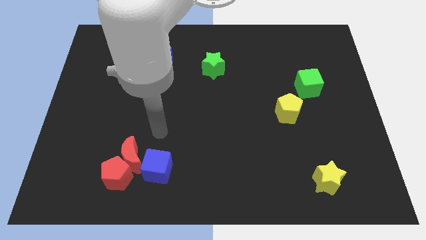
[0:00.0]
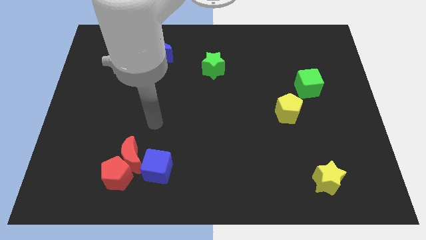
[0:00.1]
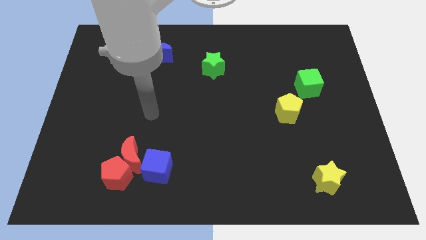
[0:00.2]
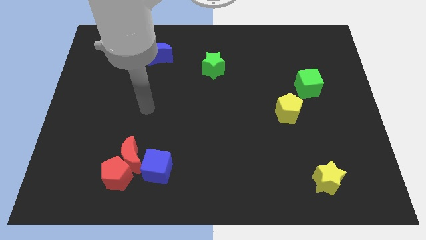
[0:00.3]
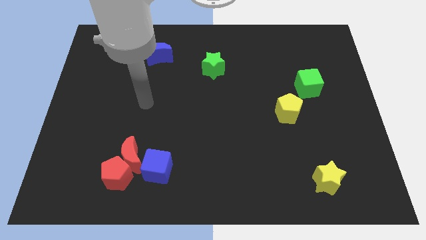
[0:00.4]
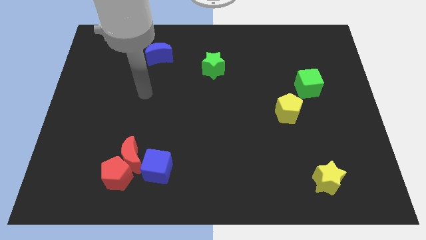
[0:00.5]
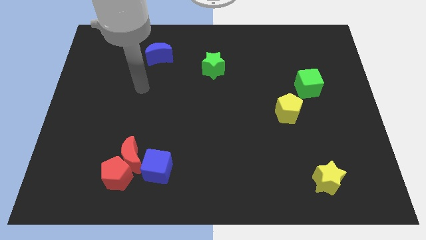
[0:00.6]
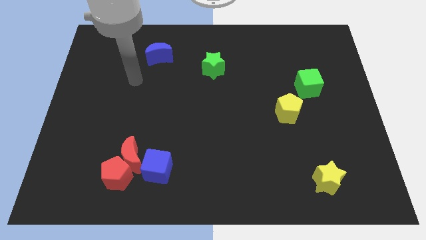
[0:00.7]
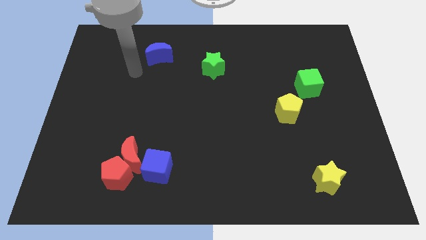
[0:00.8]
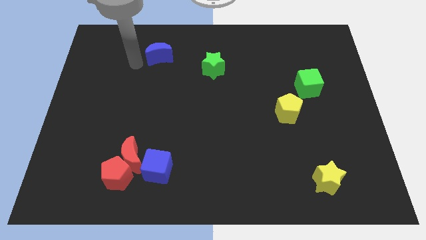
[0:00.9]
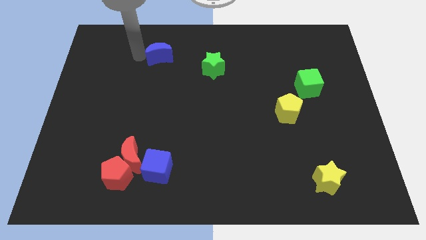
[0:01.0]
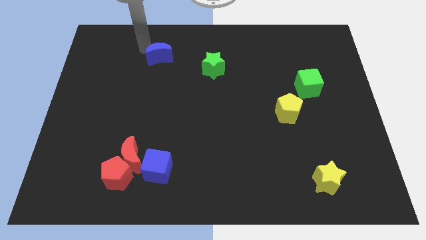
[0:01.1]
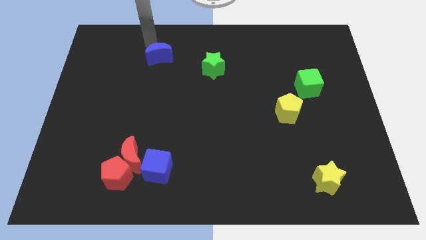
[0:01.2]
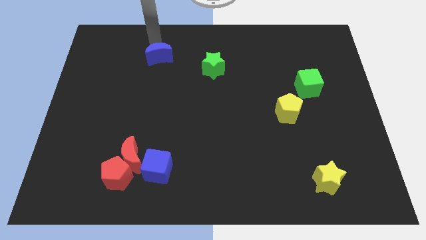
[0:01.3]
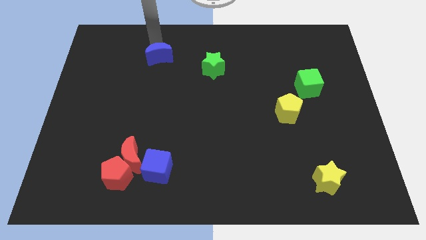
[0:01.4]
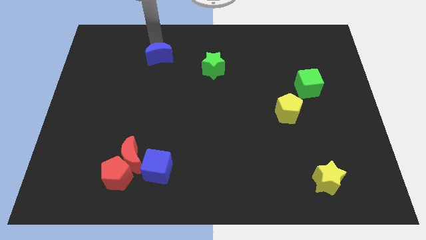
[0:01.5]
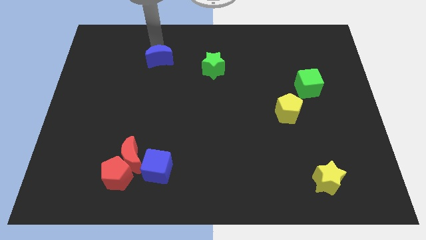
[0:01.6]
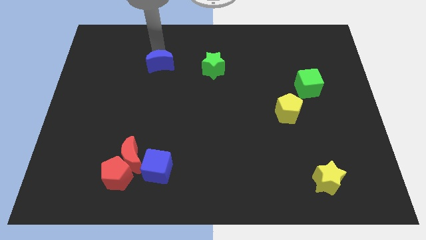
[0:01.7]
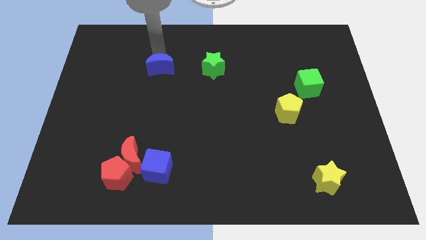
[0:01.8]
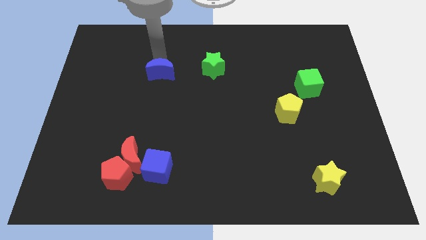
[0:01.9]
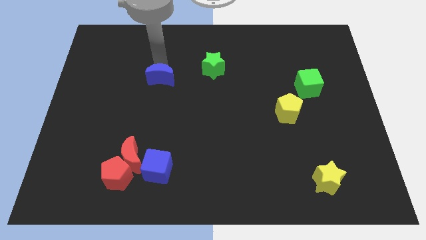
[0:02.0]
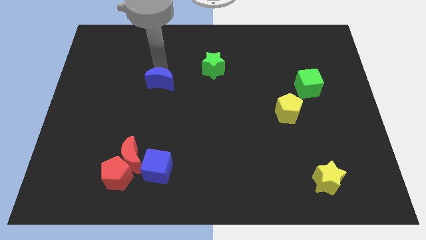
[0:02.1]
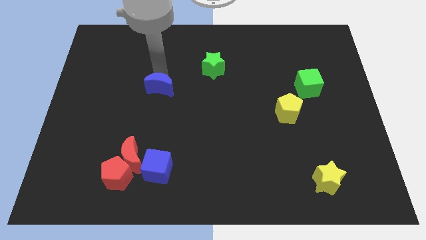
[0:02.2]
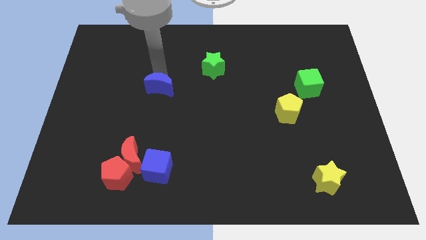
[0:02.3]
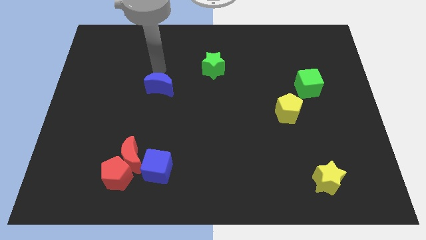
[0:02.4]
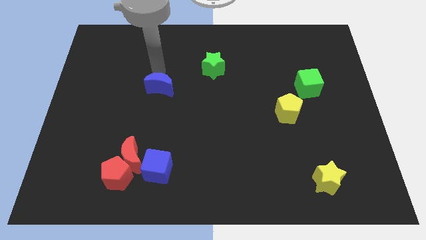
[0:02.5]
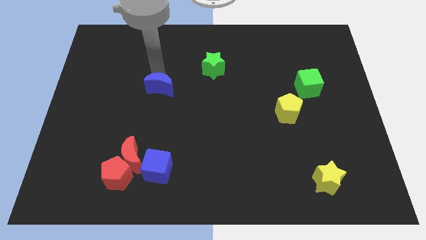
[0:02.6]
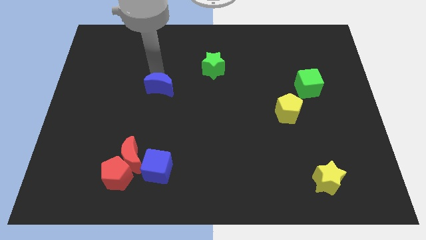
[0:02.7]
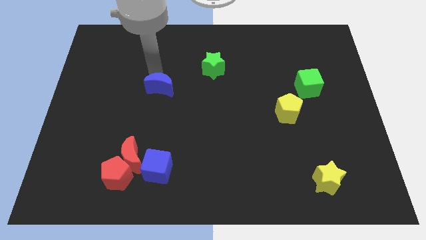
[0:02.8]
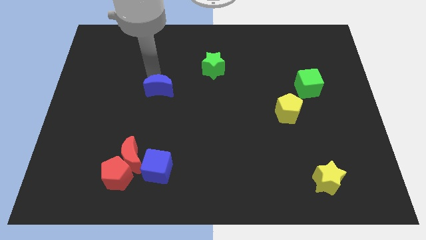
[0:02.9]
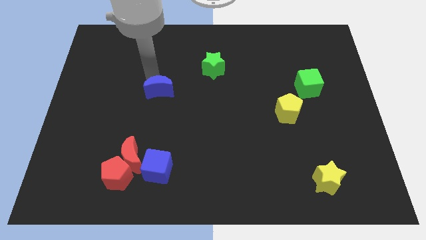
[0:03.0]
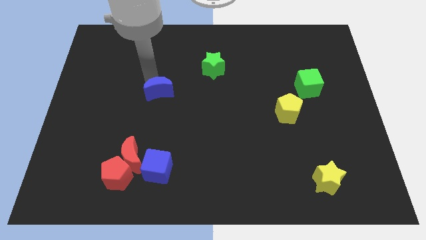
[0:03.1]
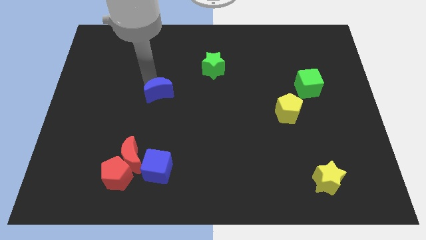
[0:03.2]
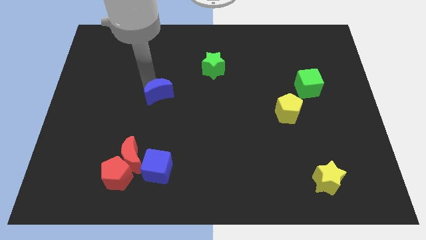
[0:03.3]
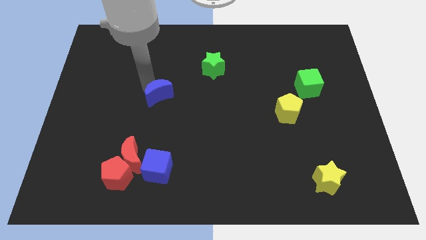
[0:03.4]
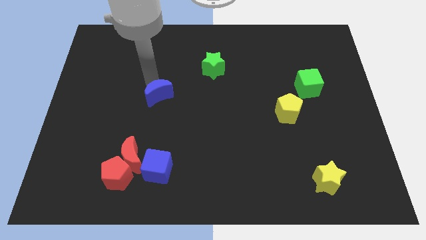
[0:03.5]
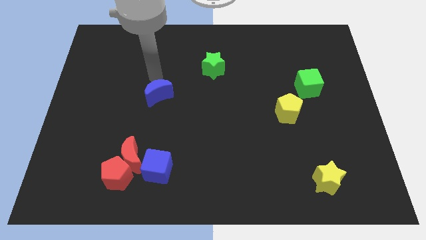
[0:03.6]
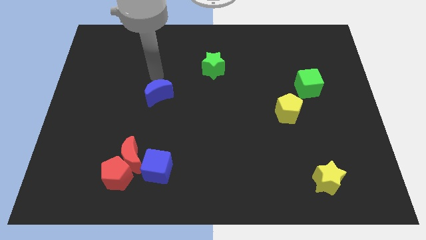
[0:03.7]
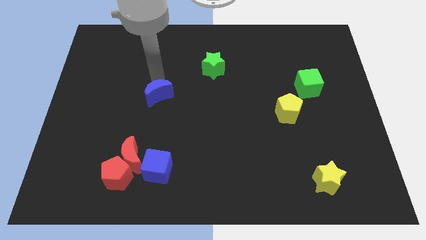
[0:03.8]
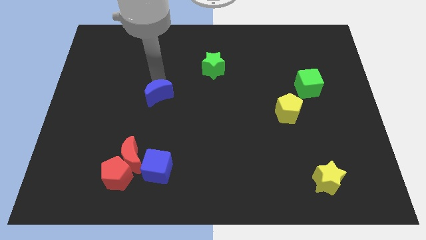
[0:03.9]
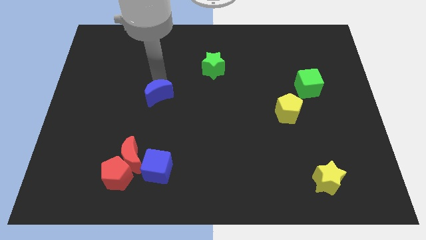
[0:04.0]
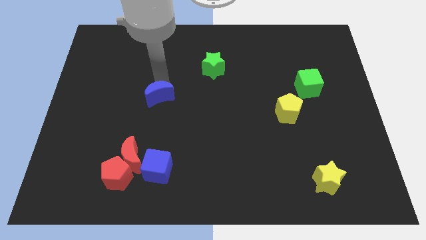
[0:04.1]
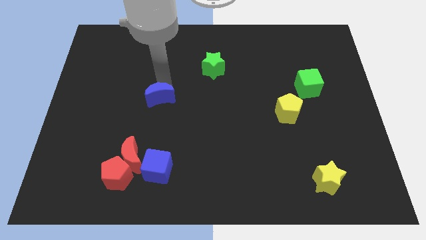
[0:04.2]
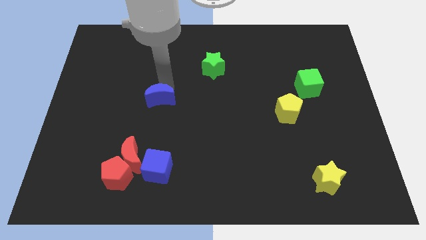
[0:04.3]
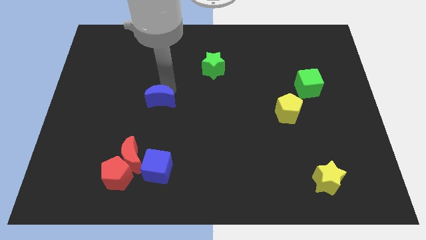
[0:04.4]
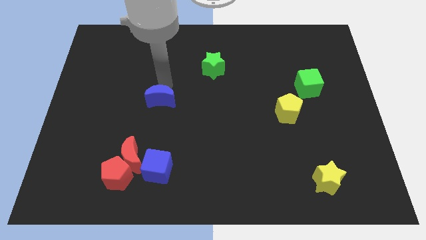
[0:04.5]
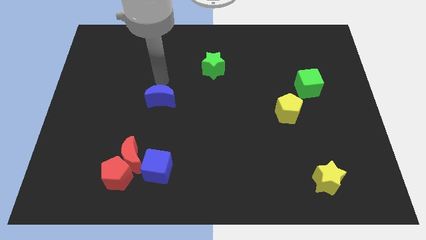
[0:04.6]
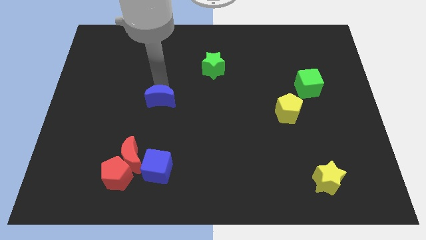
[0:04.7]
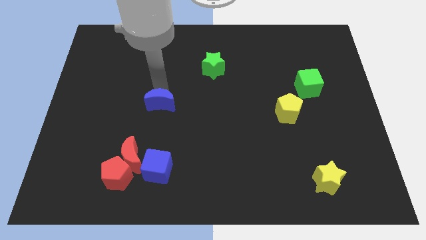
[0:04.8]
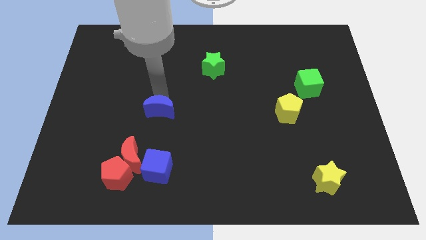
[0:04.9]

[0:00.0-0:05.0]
push the blue moon to the top side of the blue cube

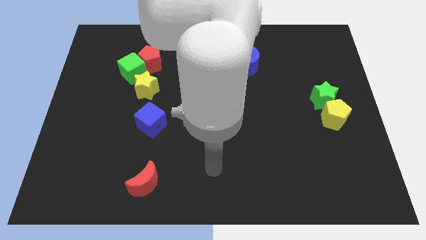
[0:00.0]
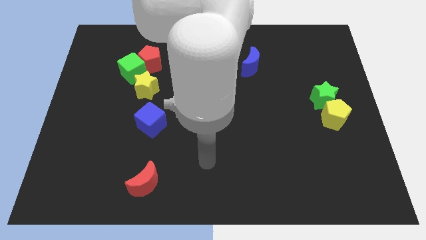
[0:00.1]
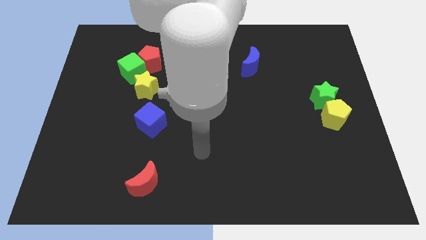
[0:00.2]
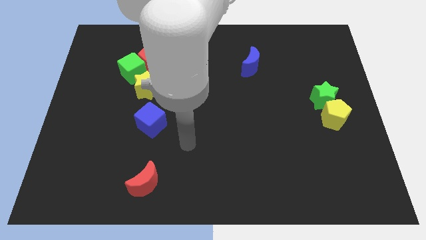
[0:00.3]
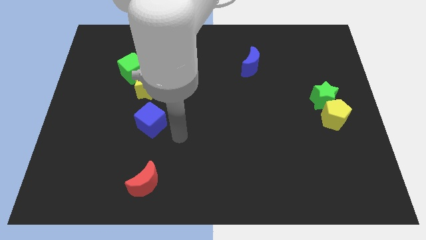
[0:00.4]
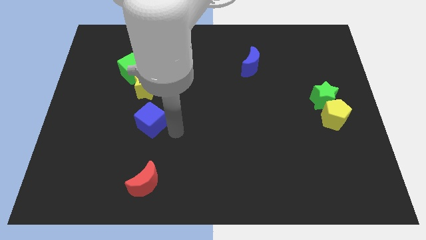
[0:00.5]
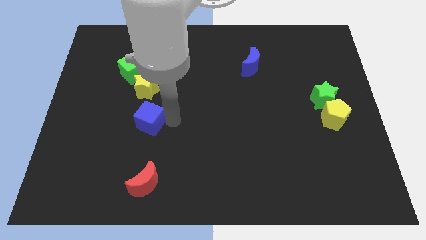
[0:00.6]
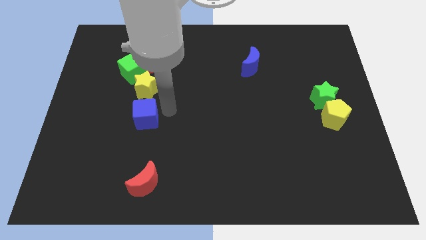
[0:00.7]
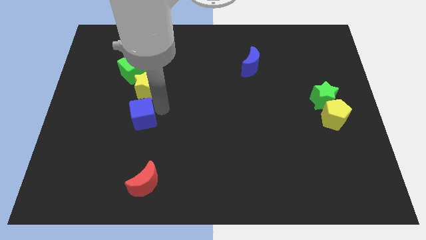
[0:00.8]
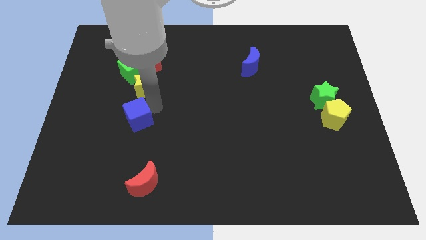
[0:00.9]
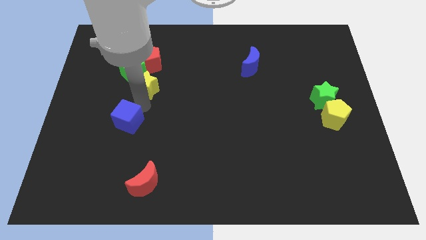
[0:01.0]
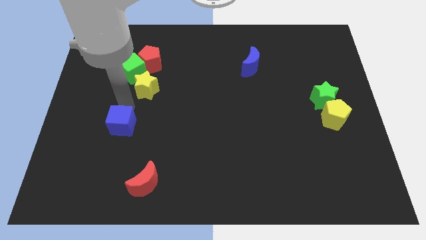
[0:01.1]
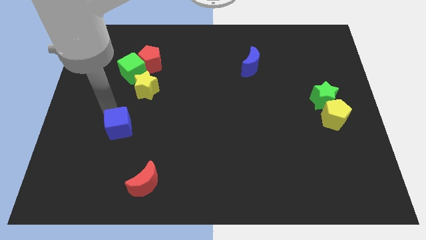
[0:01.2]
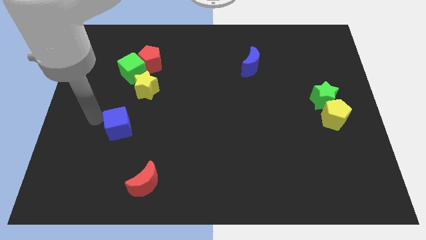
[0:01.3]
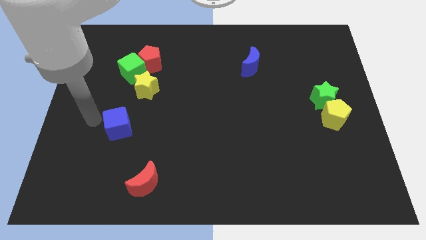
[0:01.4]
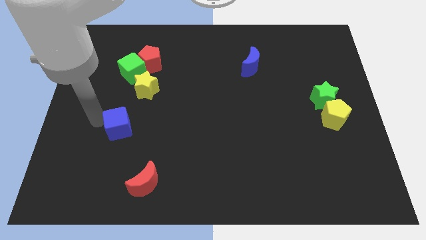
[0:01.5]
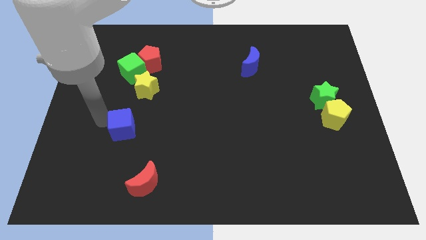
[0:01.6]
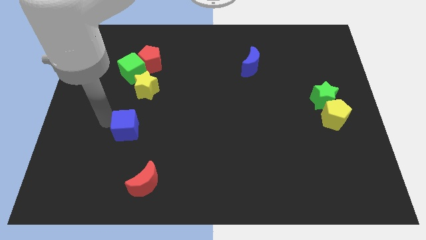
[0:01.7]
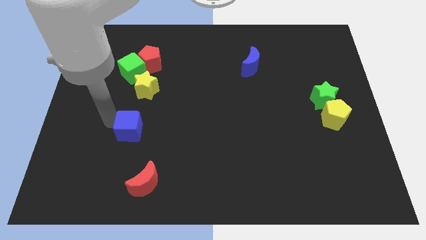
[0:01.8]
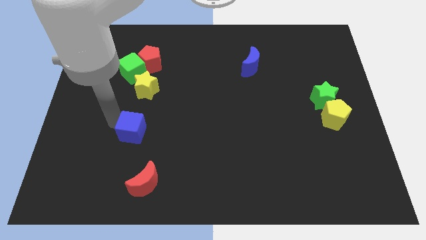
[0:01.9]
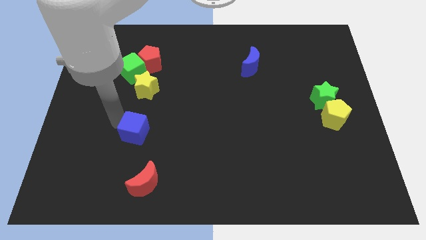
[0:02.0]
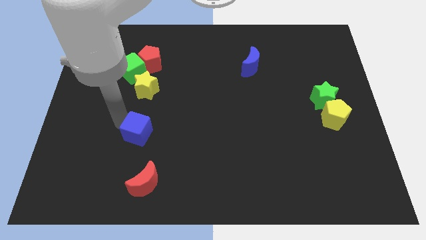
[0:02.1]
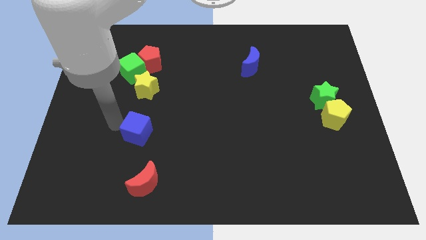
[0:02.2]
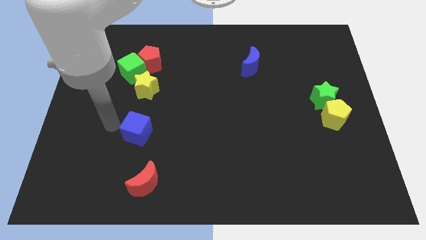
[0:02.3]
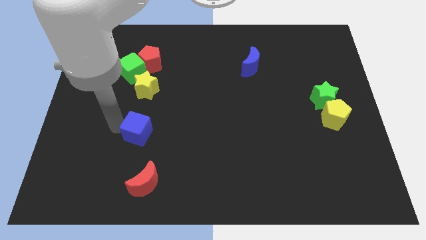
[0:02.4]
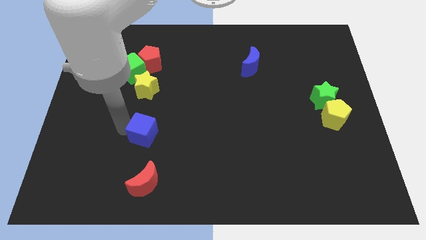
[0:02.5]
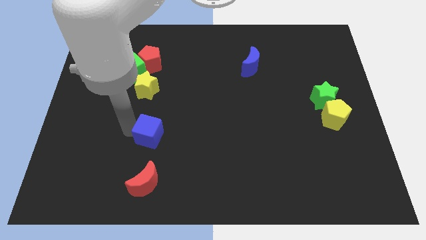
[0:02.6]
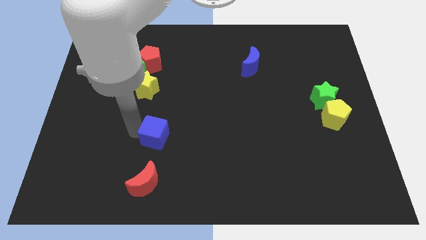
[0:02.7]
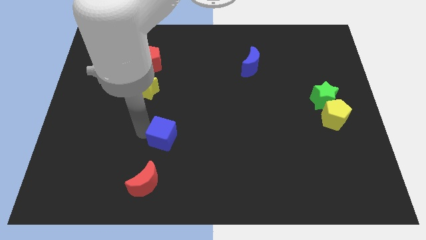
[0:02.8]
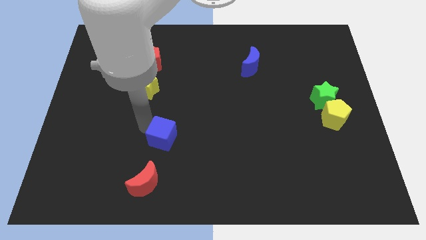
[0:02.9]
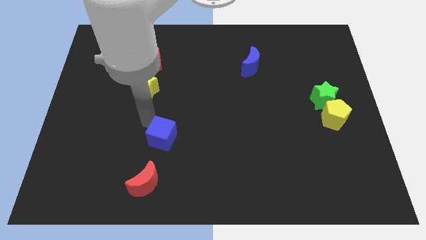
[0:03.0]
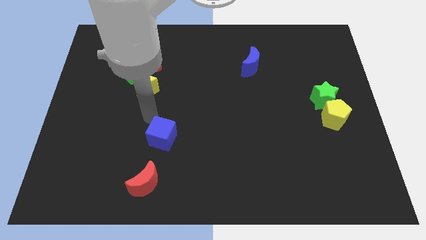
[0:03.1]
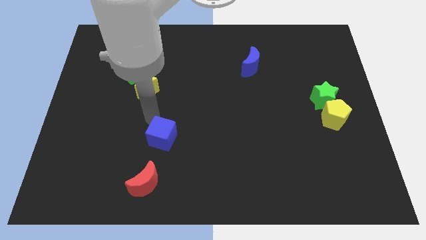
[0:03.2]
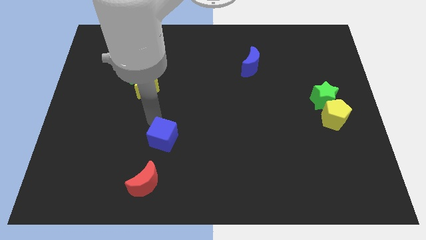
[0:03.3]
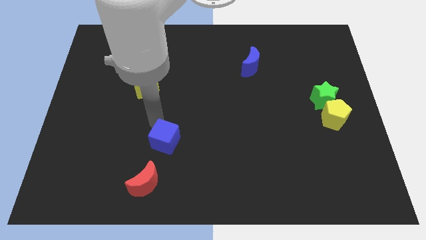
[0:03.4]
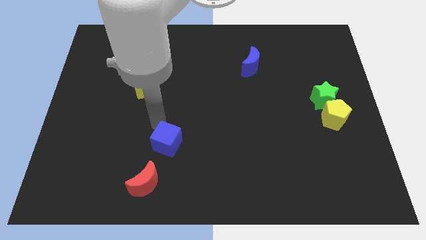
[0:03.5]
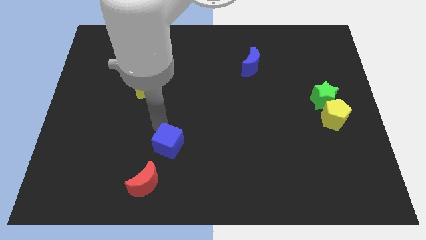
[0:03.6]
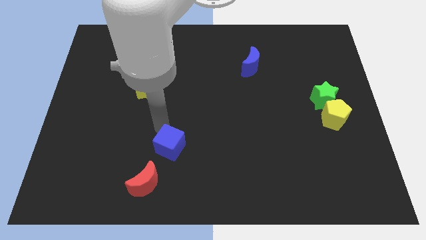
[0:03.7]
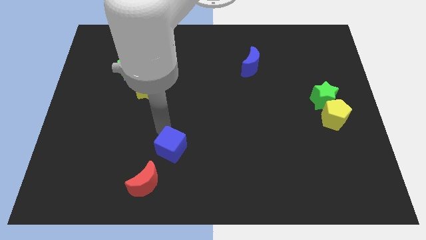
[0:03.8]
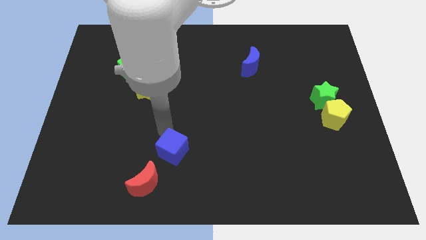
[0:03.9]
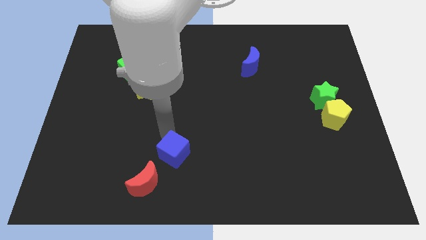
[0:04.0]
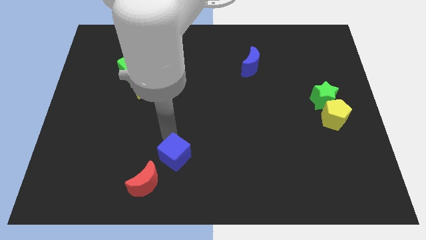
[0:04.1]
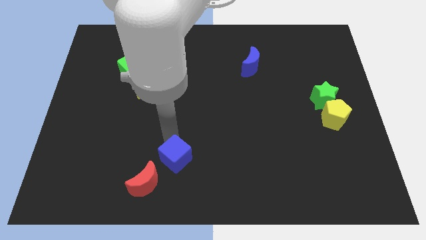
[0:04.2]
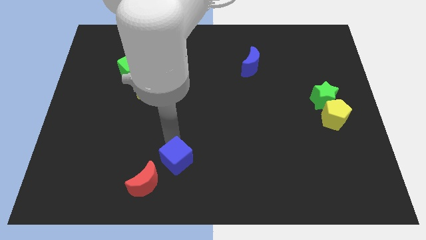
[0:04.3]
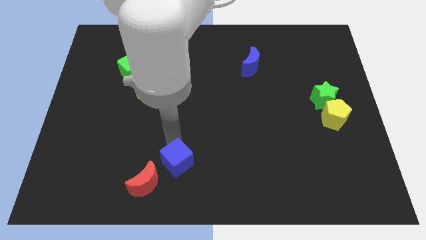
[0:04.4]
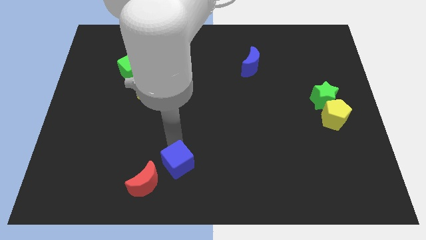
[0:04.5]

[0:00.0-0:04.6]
push the blue cube to the right of the red moon
